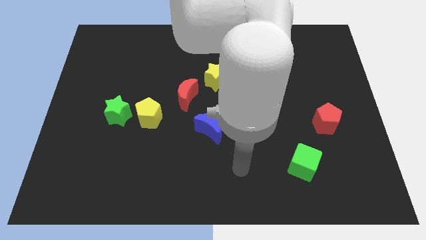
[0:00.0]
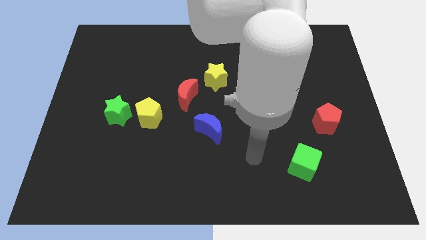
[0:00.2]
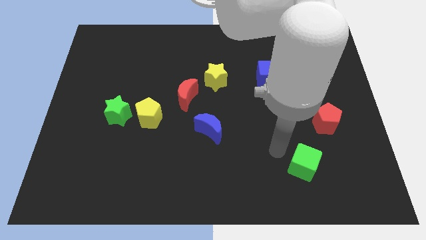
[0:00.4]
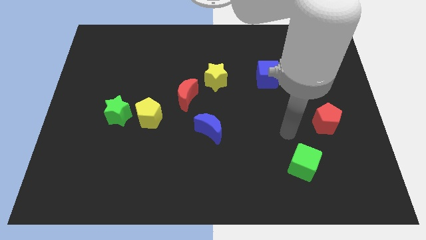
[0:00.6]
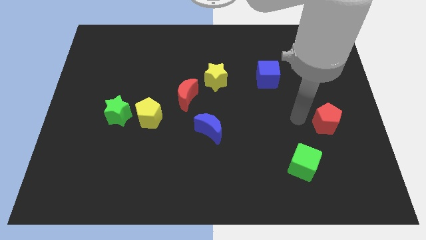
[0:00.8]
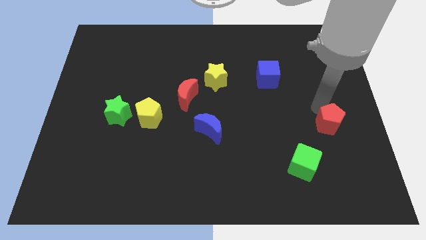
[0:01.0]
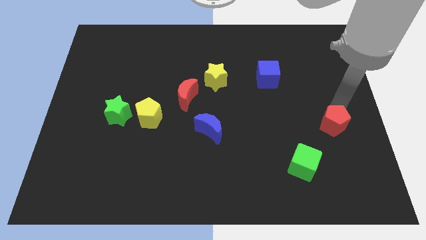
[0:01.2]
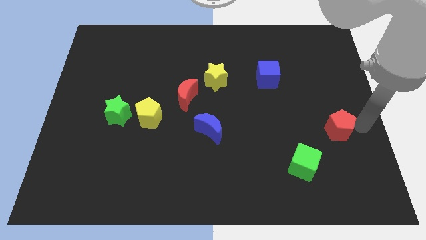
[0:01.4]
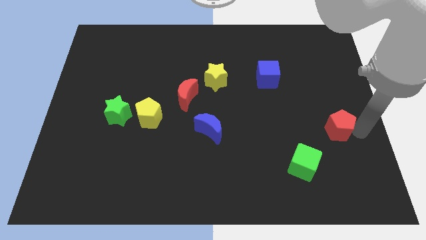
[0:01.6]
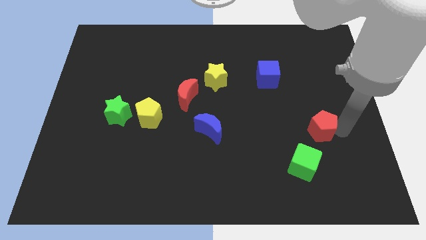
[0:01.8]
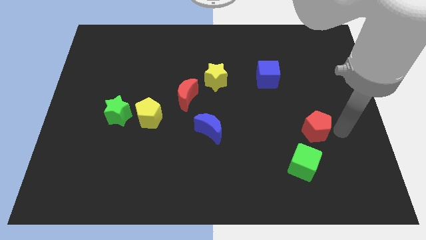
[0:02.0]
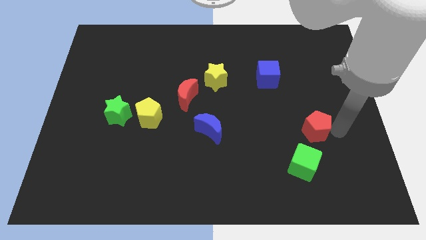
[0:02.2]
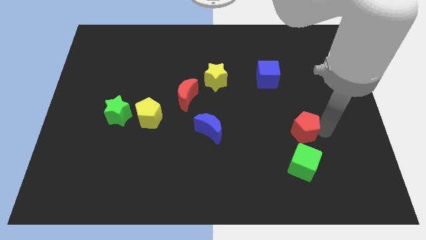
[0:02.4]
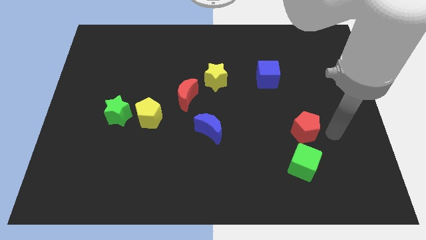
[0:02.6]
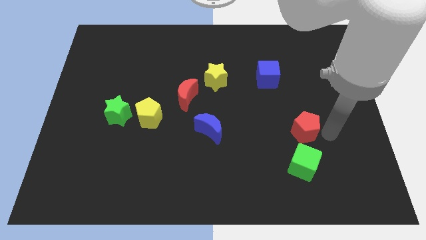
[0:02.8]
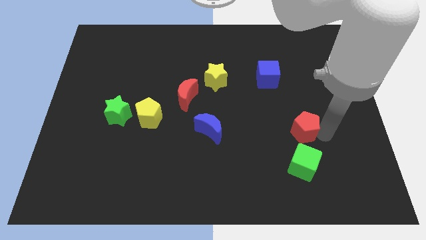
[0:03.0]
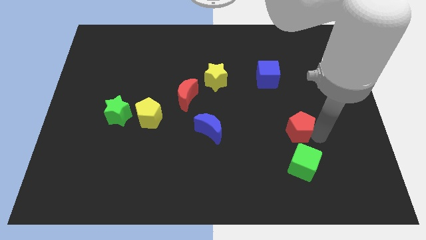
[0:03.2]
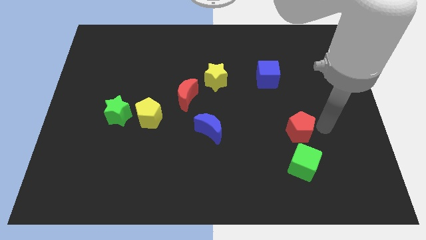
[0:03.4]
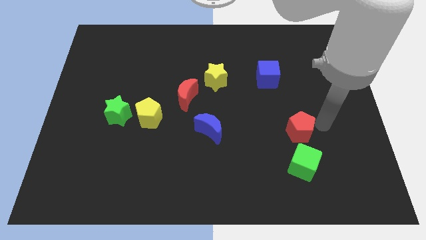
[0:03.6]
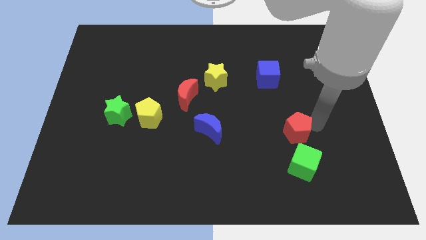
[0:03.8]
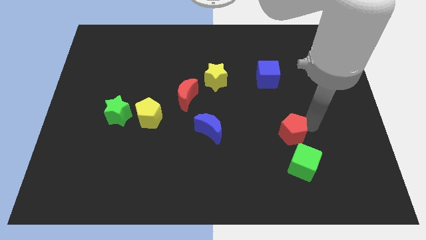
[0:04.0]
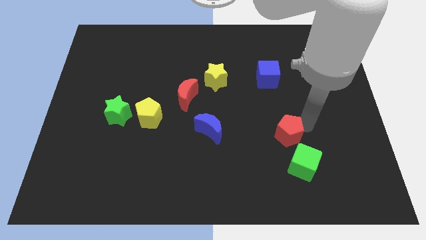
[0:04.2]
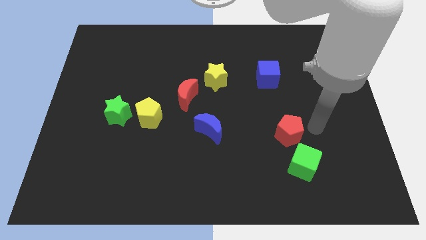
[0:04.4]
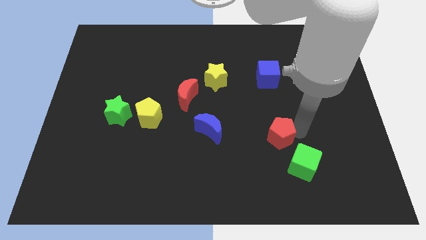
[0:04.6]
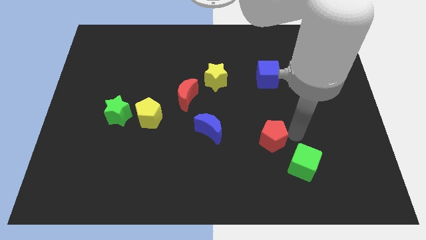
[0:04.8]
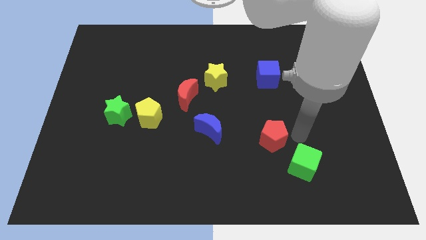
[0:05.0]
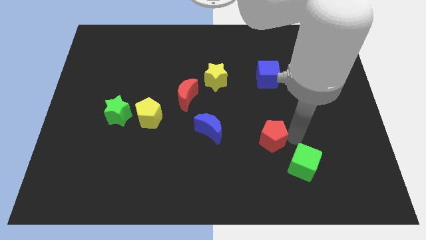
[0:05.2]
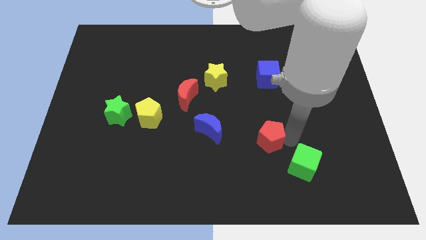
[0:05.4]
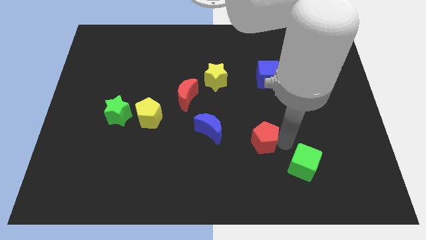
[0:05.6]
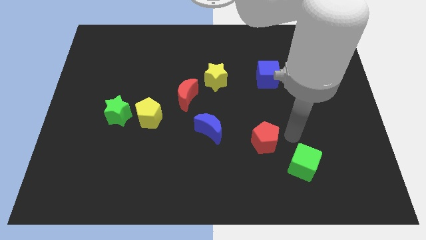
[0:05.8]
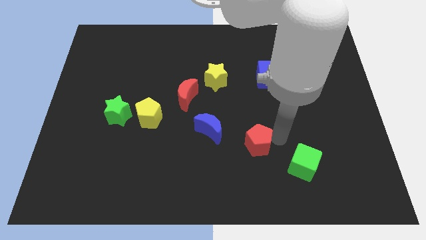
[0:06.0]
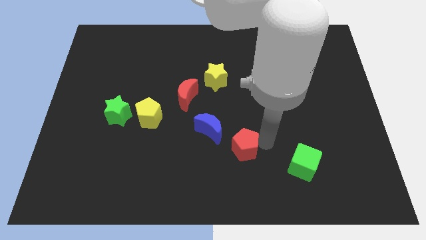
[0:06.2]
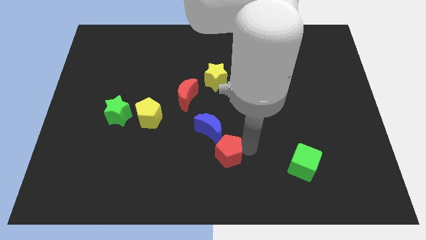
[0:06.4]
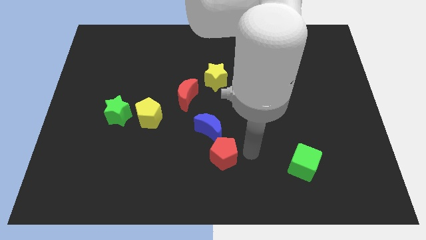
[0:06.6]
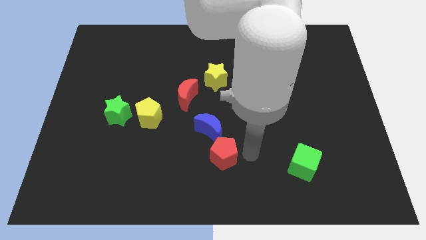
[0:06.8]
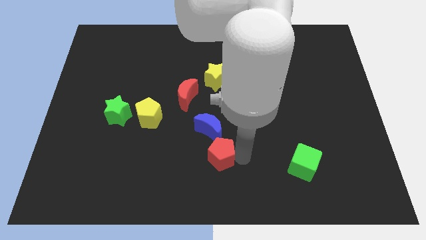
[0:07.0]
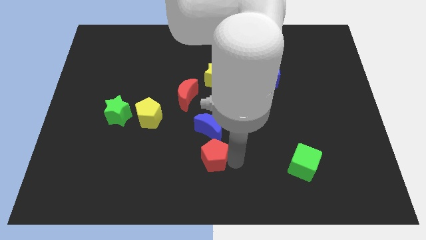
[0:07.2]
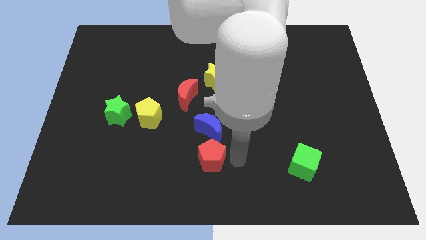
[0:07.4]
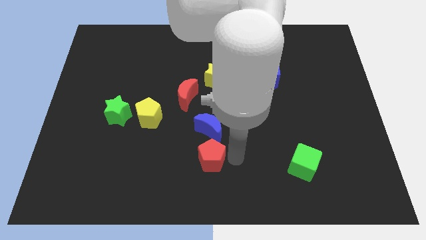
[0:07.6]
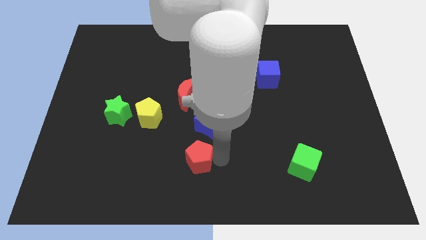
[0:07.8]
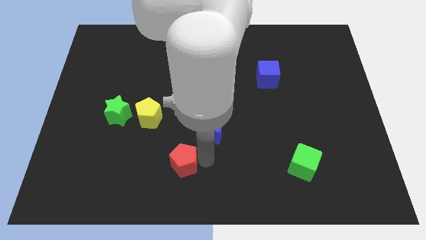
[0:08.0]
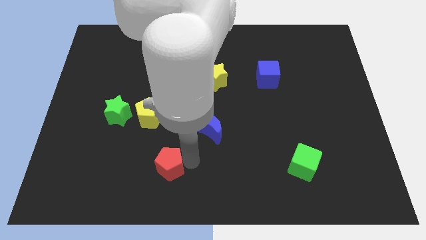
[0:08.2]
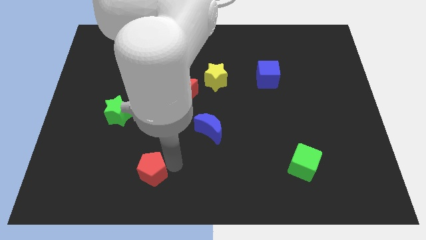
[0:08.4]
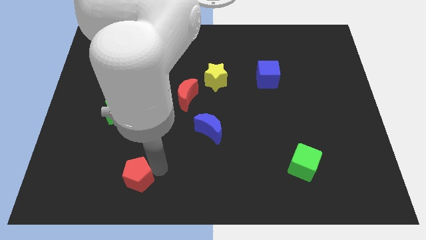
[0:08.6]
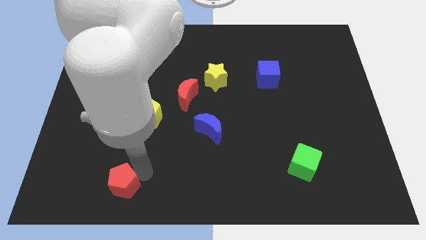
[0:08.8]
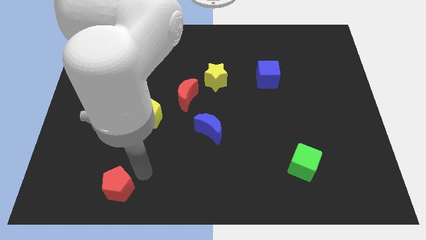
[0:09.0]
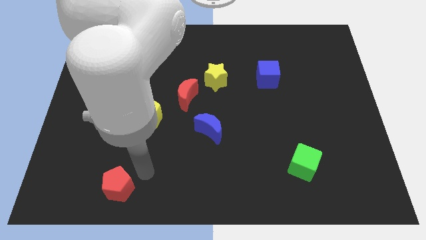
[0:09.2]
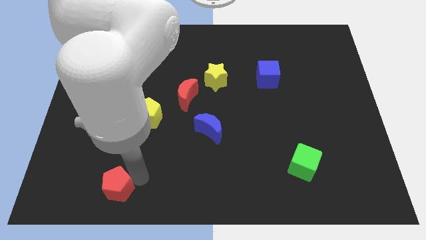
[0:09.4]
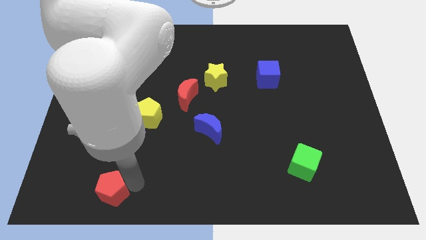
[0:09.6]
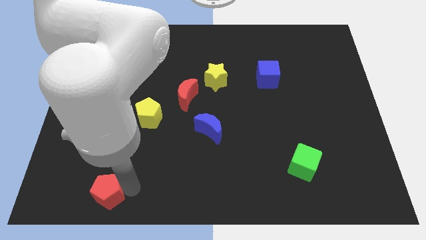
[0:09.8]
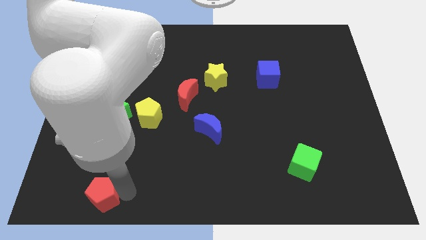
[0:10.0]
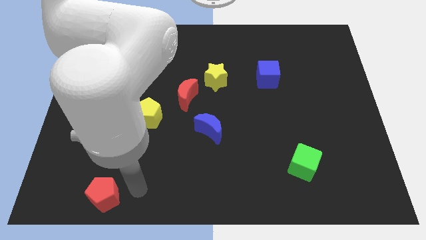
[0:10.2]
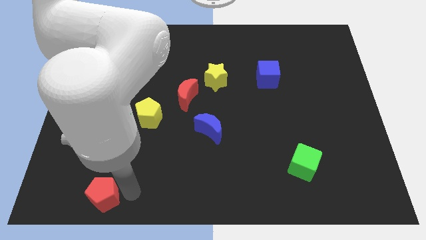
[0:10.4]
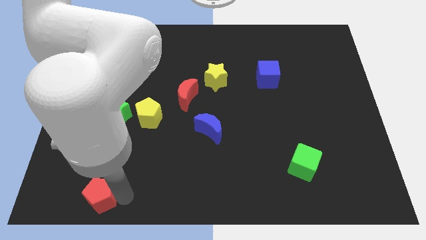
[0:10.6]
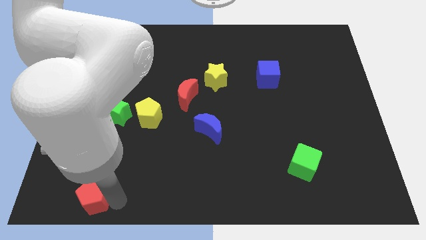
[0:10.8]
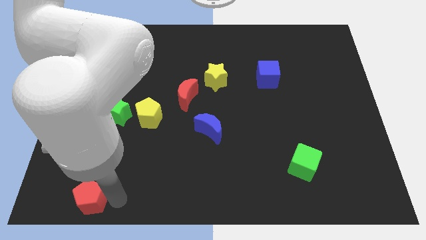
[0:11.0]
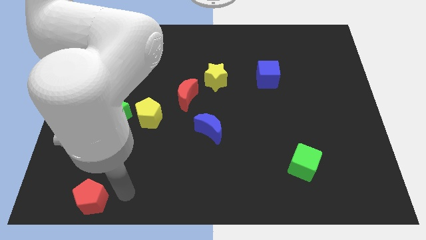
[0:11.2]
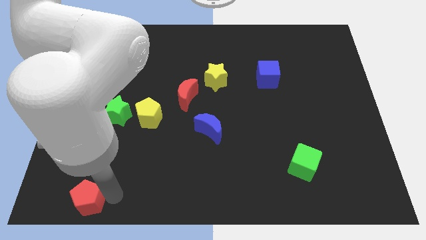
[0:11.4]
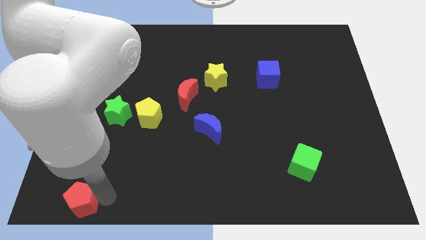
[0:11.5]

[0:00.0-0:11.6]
slide the red pentagon to the bottom left

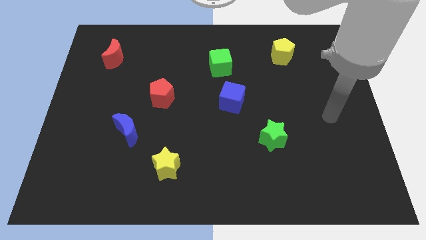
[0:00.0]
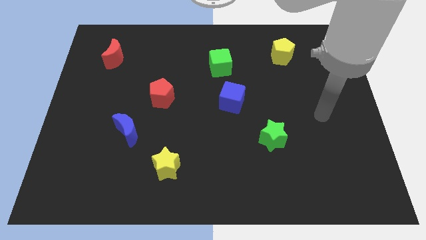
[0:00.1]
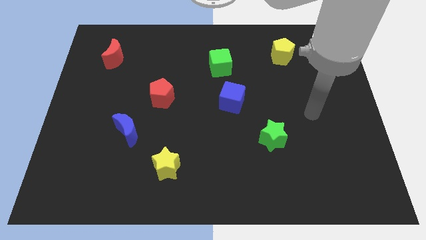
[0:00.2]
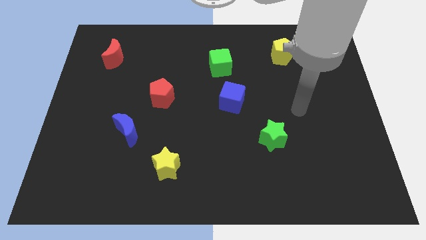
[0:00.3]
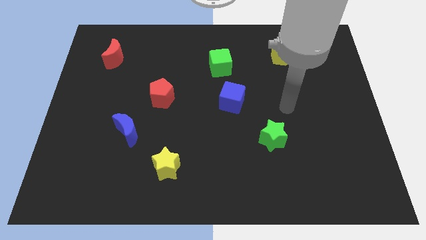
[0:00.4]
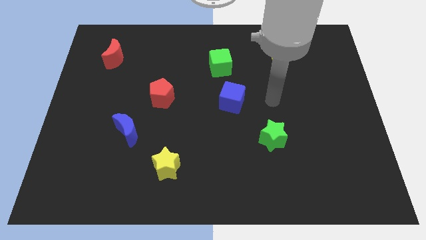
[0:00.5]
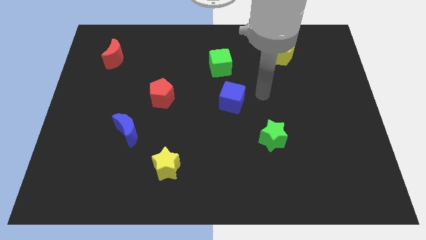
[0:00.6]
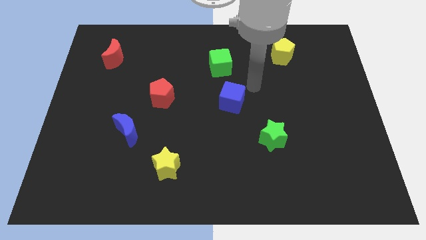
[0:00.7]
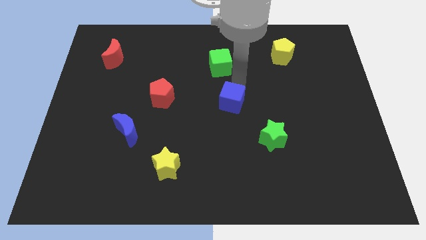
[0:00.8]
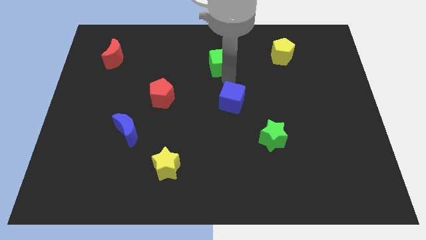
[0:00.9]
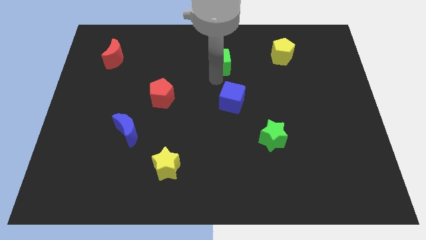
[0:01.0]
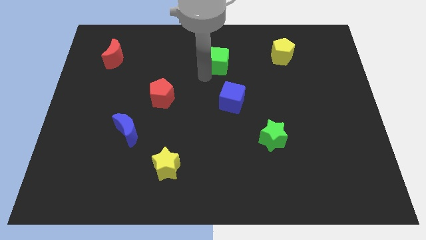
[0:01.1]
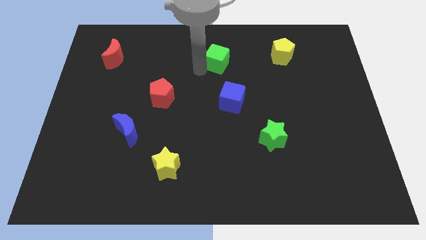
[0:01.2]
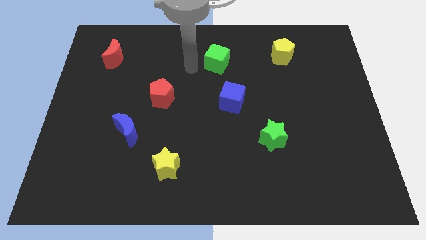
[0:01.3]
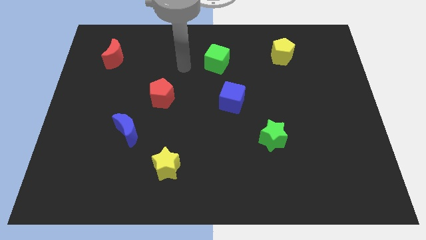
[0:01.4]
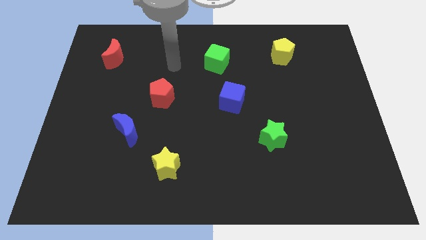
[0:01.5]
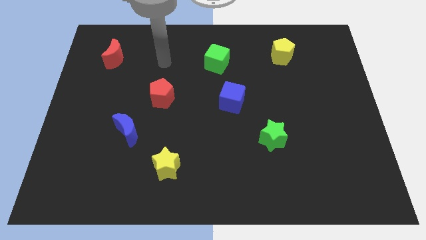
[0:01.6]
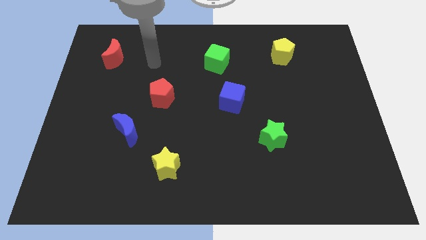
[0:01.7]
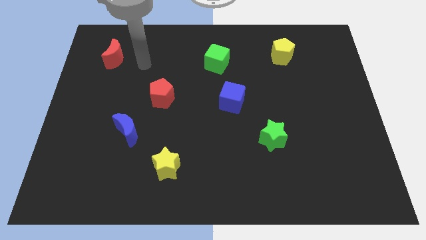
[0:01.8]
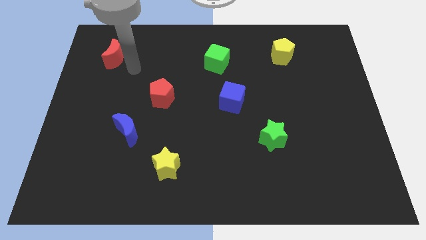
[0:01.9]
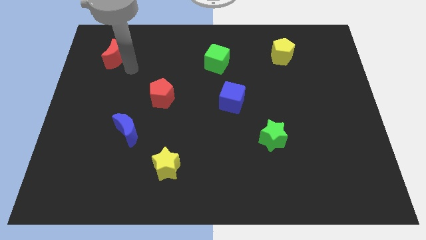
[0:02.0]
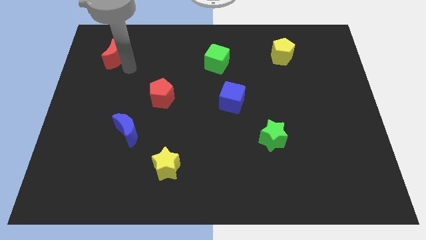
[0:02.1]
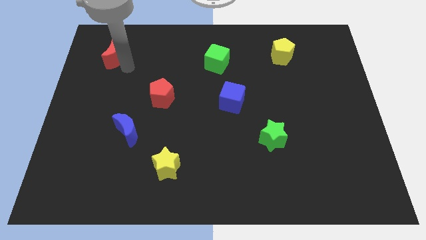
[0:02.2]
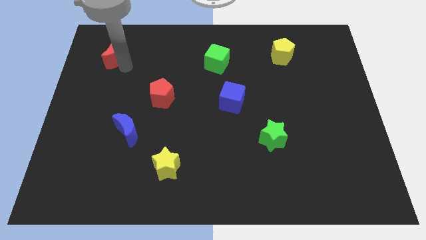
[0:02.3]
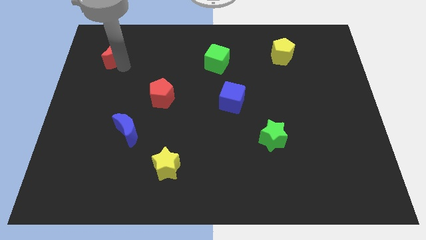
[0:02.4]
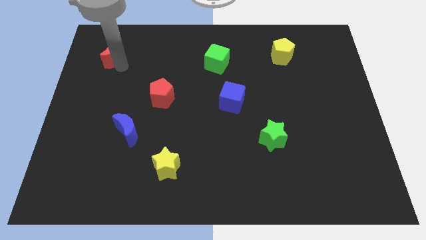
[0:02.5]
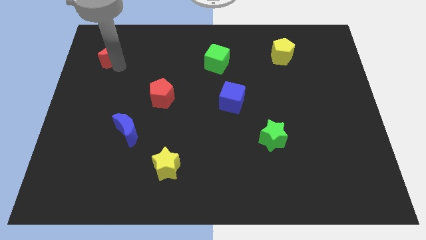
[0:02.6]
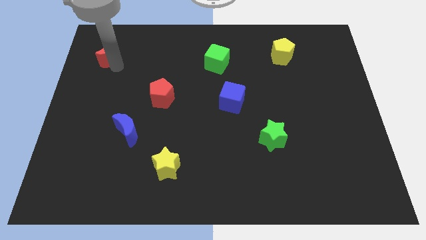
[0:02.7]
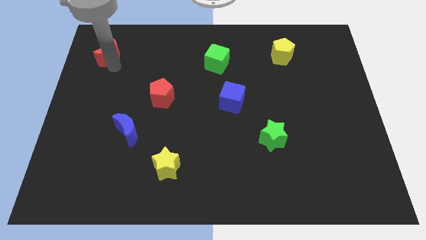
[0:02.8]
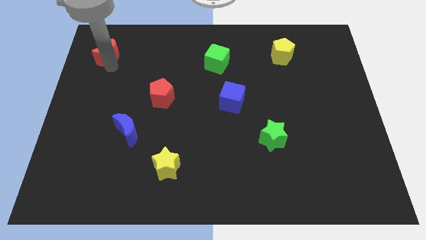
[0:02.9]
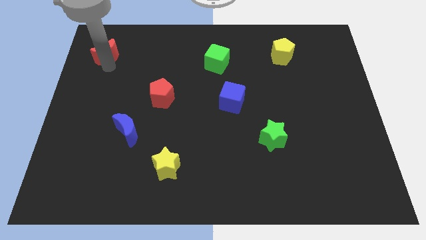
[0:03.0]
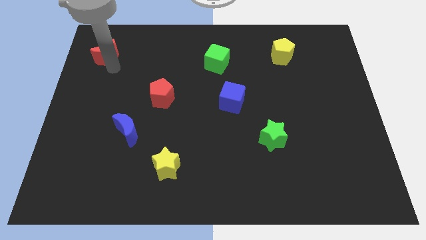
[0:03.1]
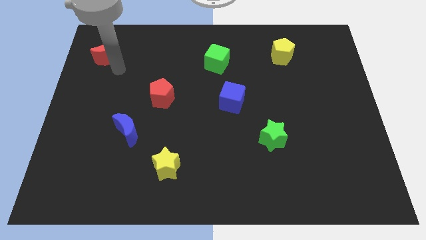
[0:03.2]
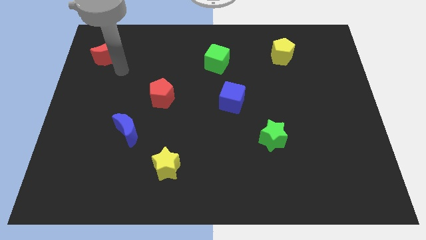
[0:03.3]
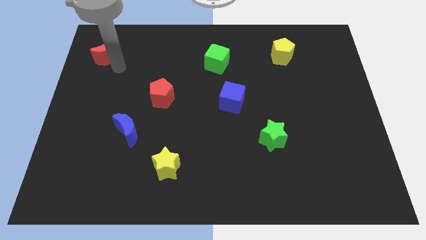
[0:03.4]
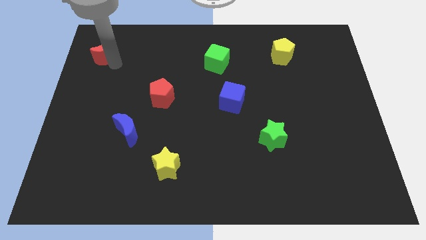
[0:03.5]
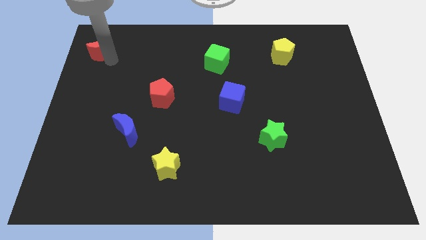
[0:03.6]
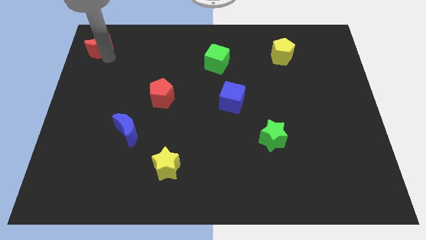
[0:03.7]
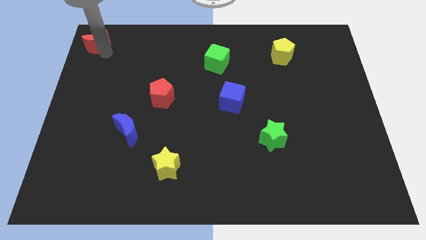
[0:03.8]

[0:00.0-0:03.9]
push the red moon to the top left of the board
